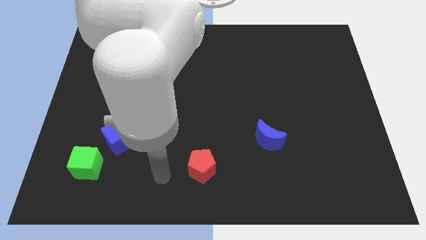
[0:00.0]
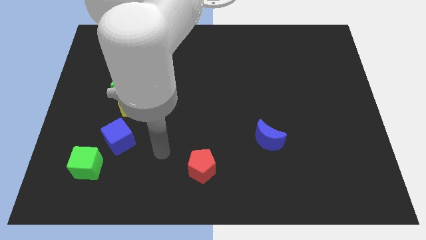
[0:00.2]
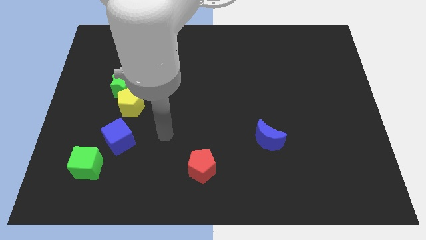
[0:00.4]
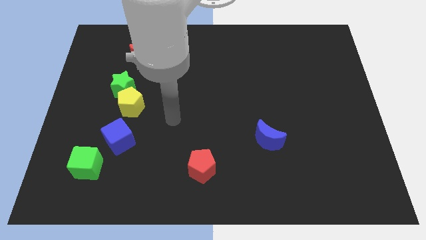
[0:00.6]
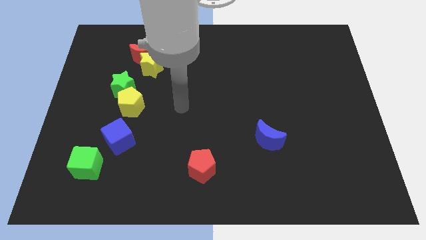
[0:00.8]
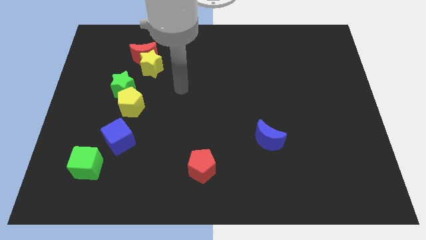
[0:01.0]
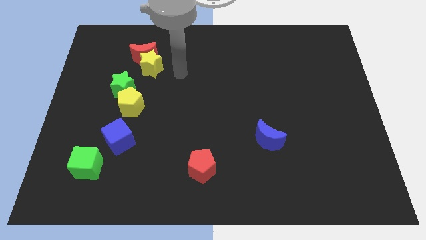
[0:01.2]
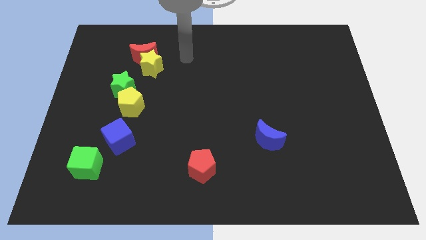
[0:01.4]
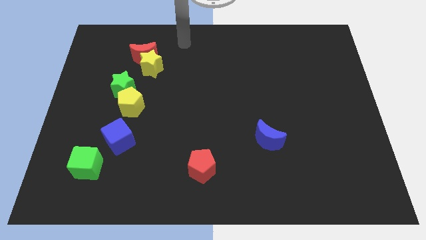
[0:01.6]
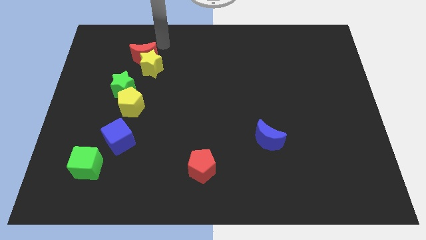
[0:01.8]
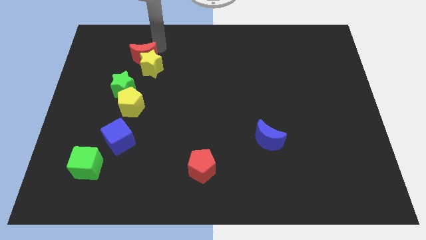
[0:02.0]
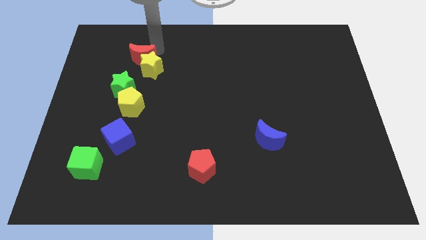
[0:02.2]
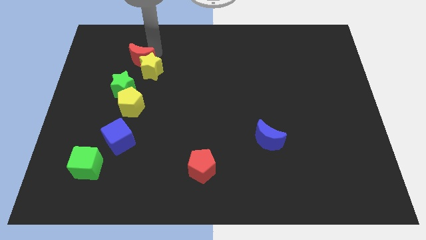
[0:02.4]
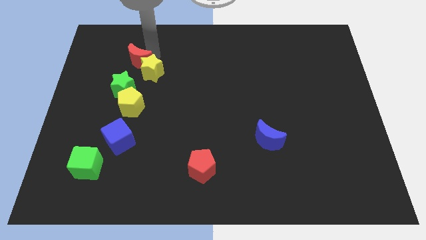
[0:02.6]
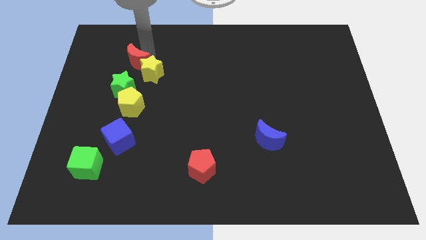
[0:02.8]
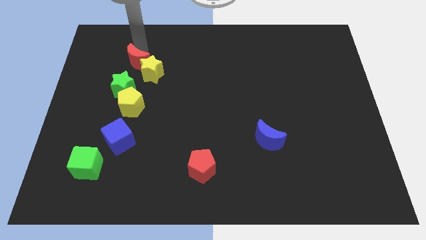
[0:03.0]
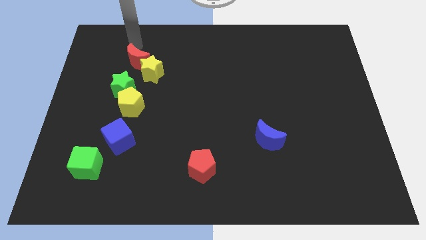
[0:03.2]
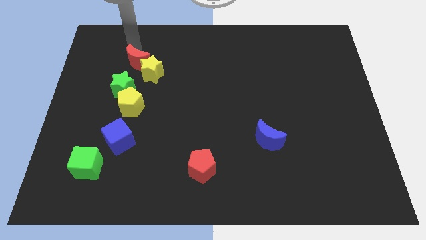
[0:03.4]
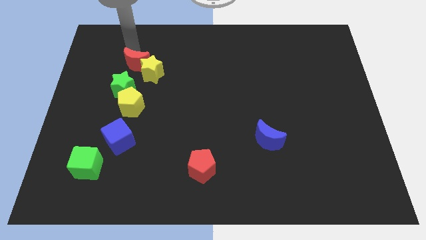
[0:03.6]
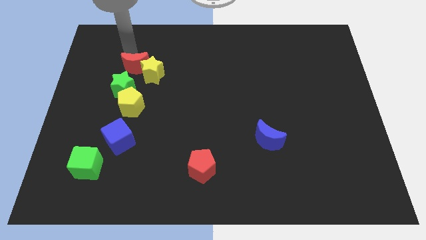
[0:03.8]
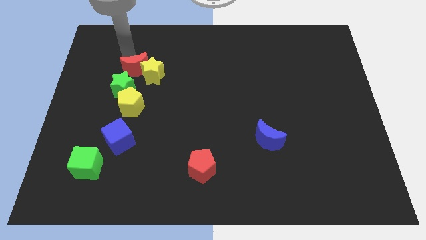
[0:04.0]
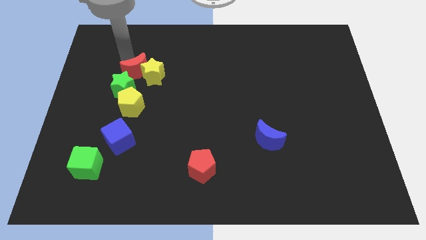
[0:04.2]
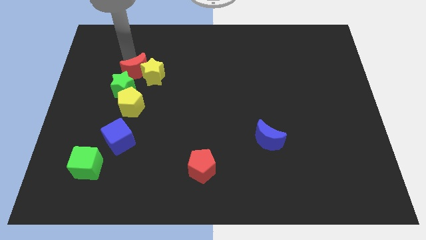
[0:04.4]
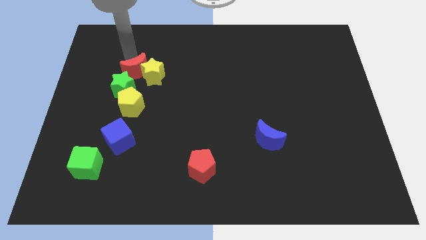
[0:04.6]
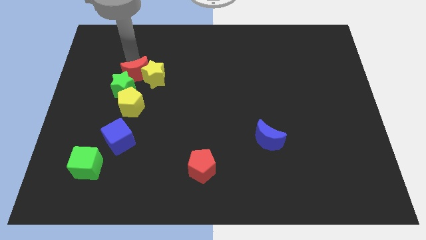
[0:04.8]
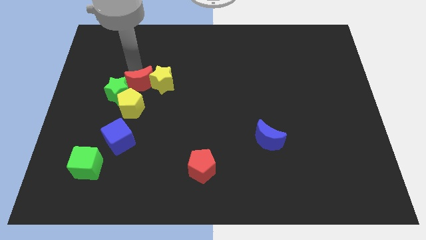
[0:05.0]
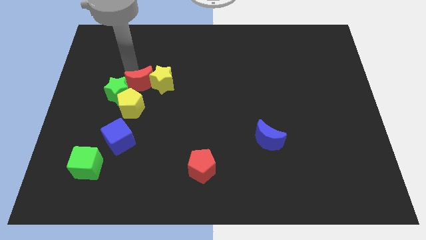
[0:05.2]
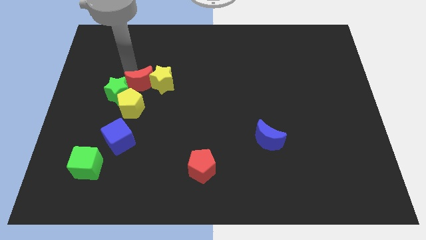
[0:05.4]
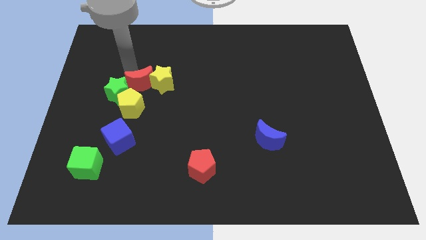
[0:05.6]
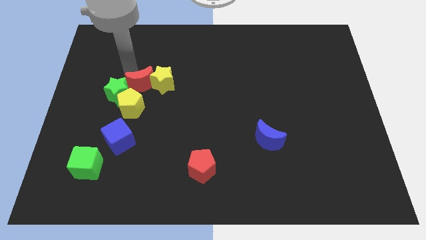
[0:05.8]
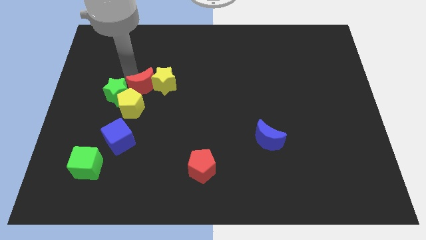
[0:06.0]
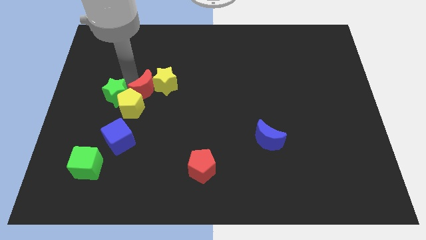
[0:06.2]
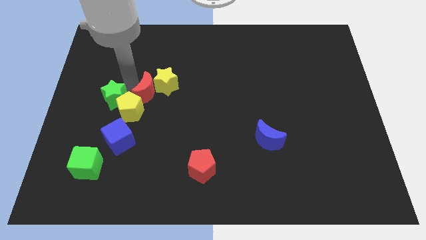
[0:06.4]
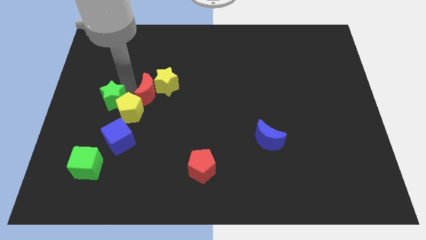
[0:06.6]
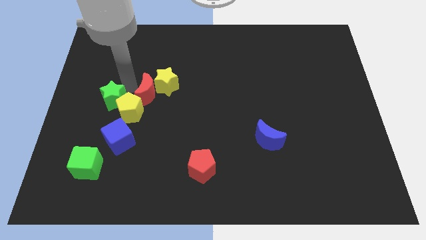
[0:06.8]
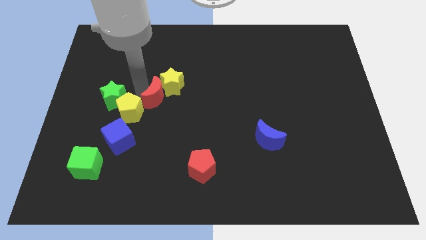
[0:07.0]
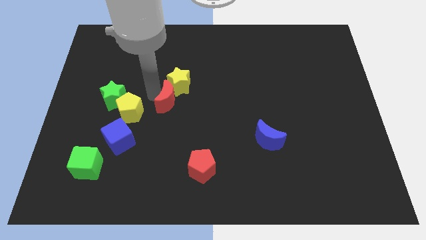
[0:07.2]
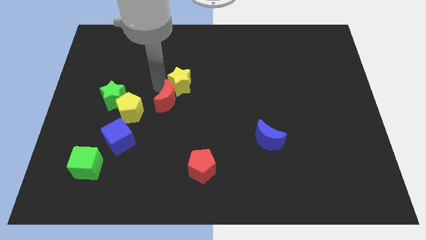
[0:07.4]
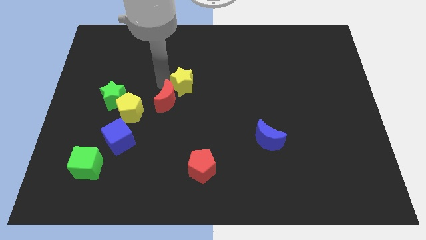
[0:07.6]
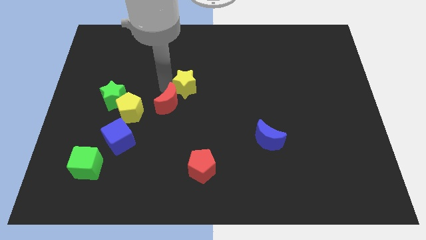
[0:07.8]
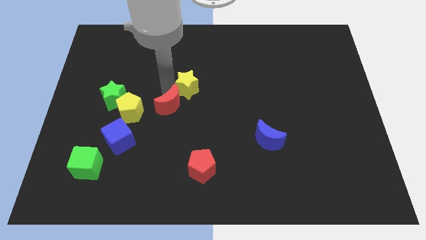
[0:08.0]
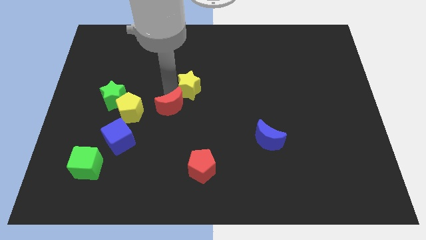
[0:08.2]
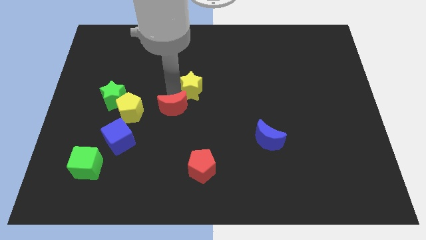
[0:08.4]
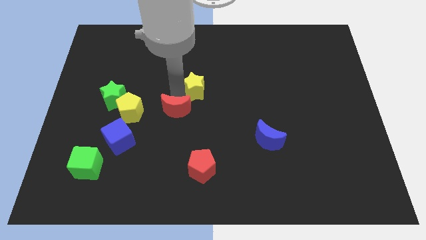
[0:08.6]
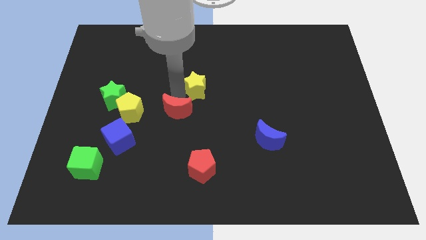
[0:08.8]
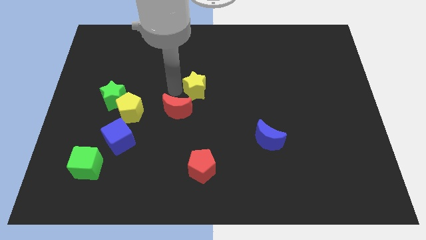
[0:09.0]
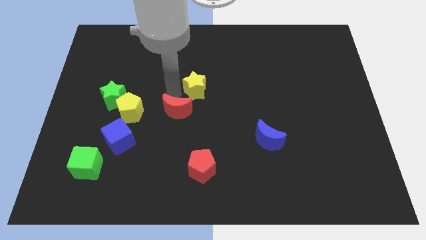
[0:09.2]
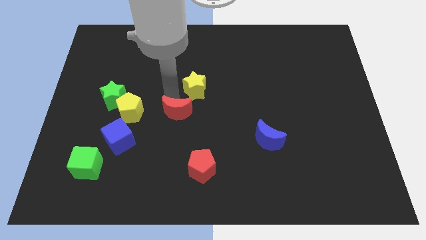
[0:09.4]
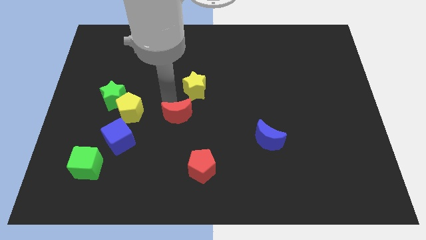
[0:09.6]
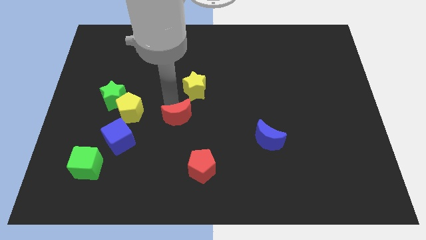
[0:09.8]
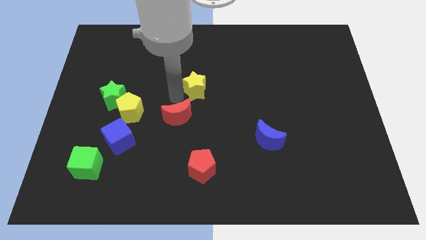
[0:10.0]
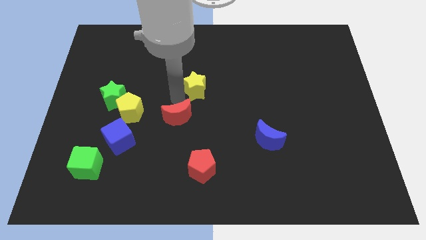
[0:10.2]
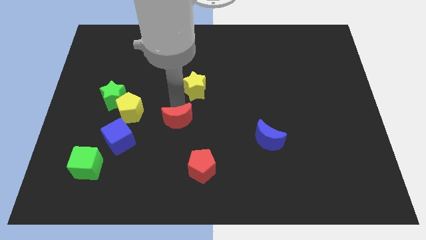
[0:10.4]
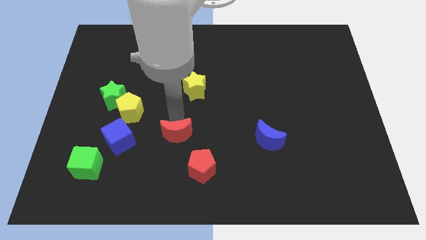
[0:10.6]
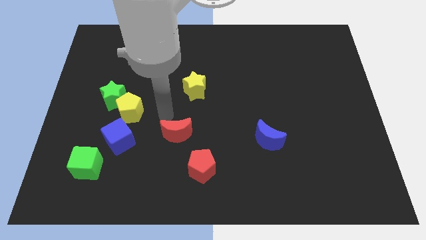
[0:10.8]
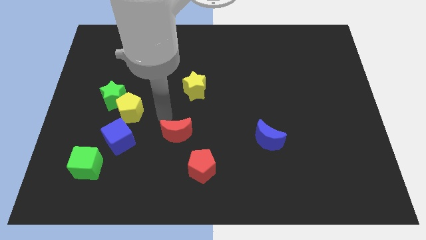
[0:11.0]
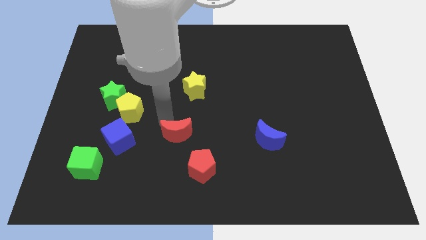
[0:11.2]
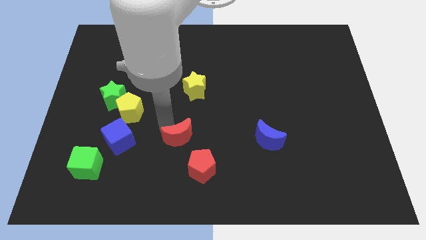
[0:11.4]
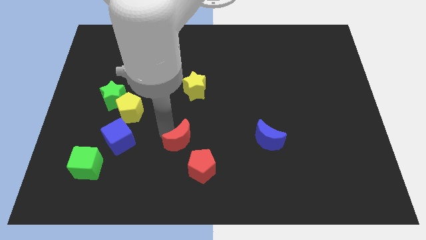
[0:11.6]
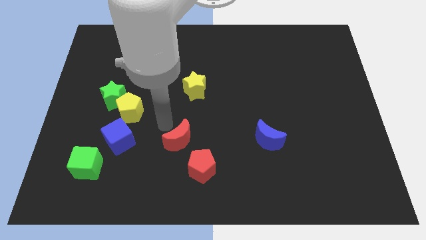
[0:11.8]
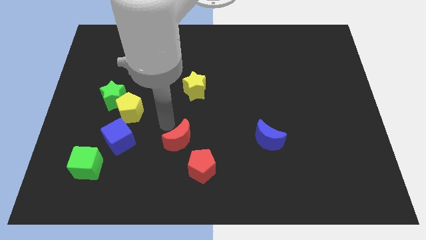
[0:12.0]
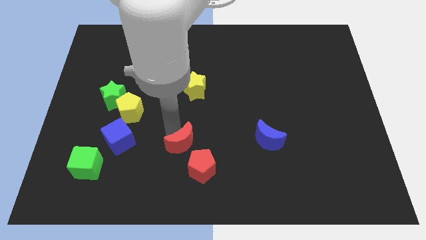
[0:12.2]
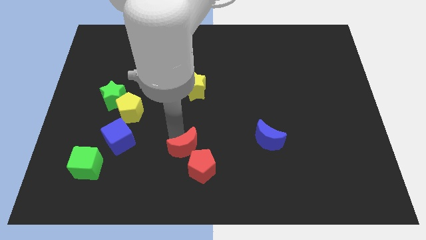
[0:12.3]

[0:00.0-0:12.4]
push the red moon next to the red pentagon

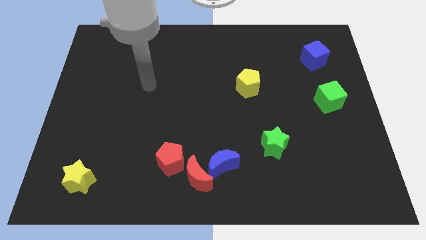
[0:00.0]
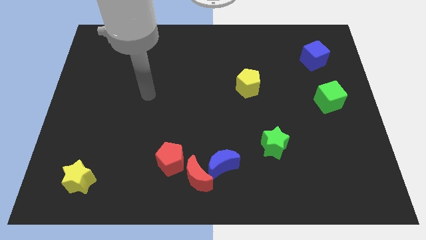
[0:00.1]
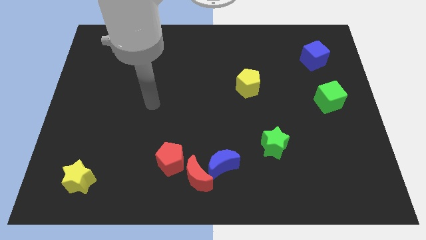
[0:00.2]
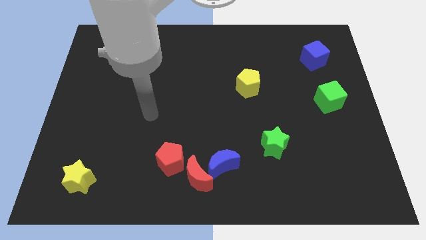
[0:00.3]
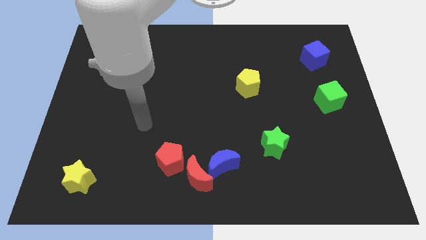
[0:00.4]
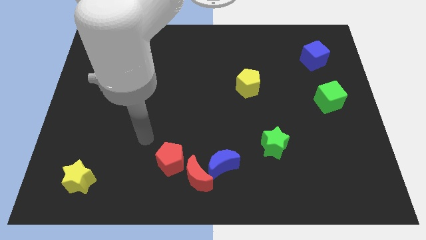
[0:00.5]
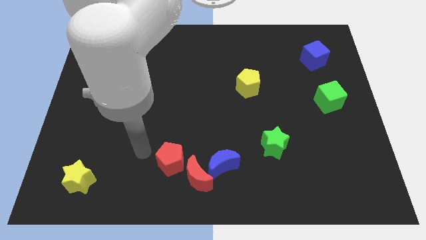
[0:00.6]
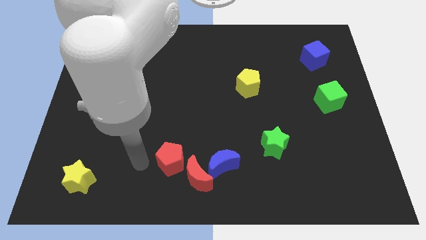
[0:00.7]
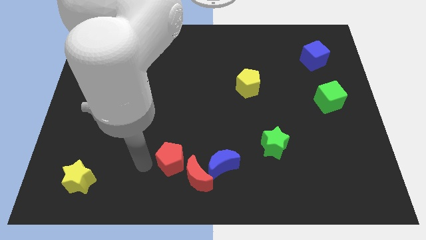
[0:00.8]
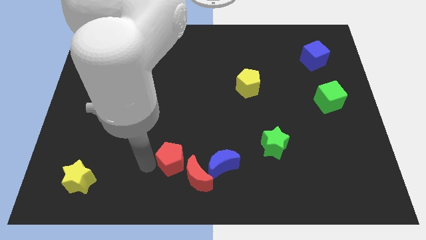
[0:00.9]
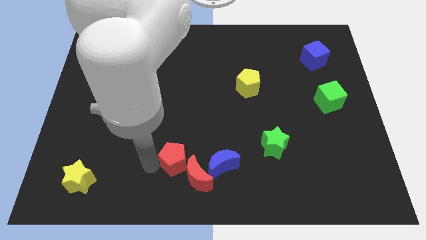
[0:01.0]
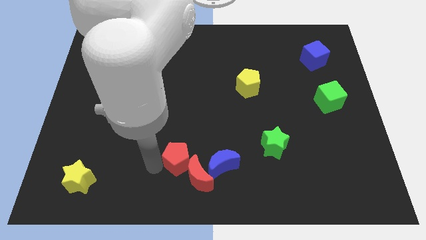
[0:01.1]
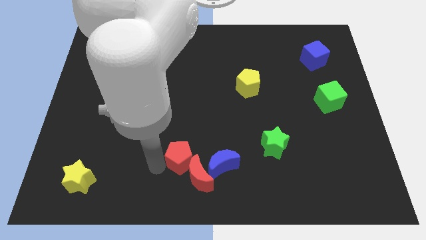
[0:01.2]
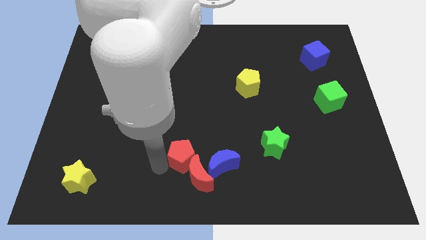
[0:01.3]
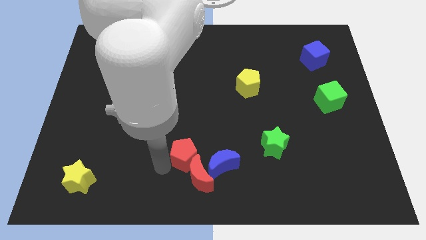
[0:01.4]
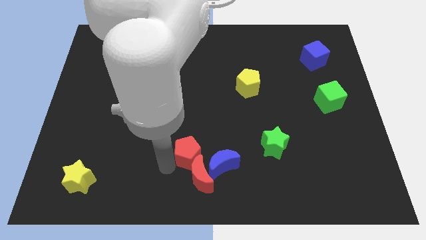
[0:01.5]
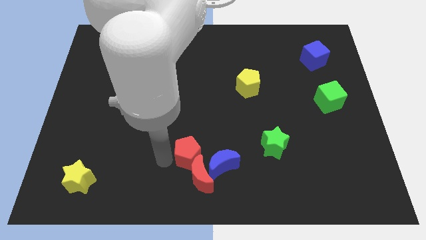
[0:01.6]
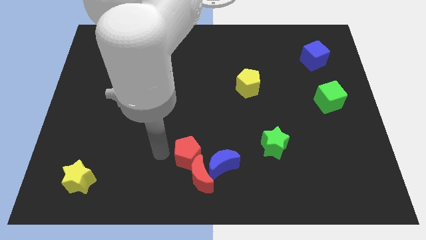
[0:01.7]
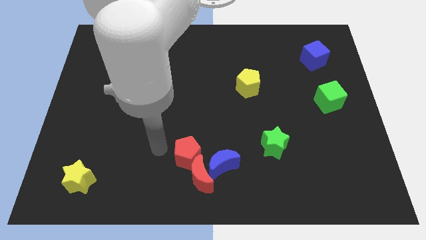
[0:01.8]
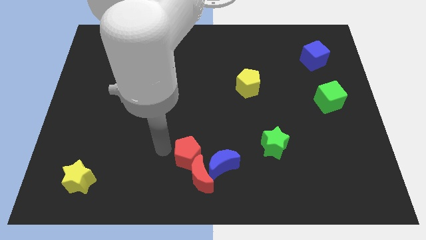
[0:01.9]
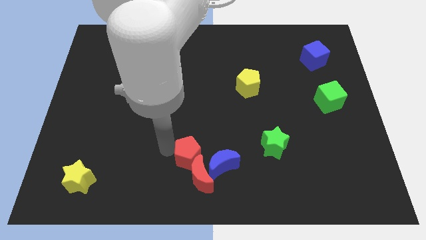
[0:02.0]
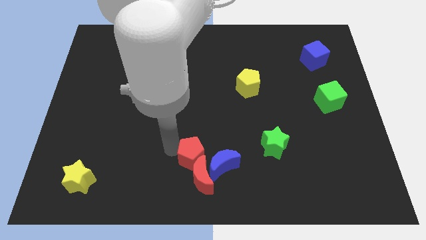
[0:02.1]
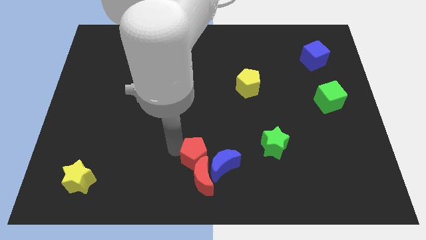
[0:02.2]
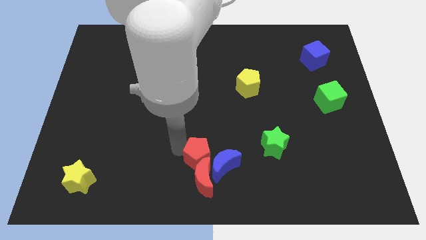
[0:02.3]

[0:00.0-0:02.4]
move the red pentagon next to the blue moon
